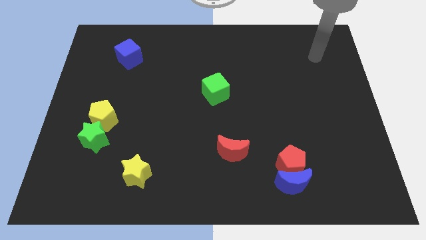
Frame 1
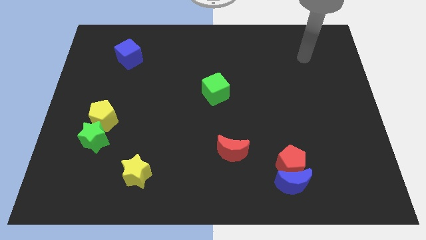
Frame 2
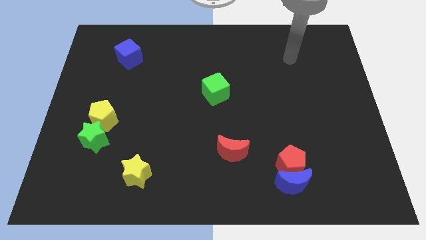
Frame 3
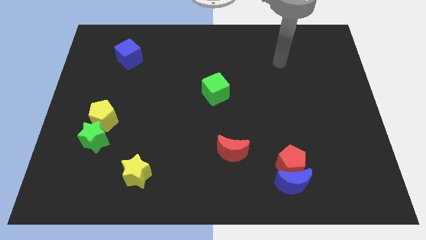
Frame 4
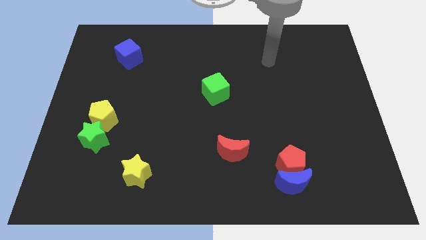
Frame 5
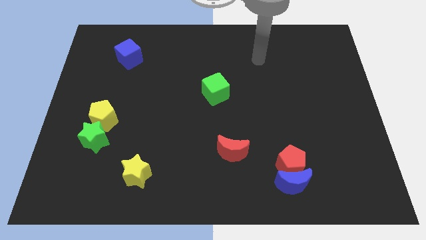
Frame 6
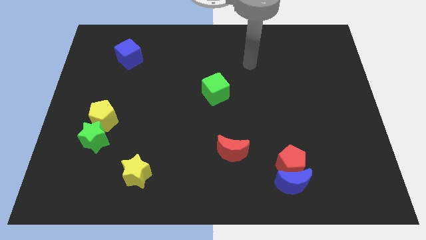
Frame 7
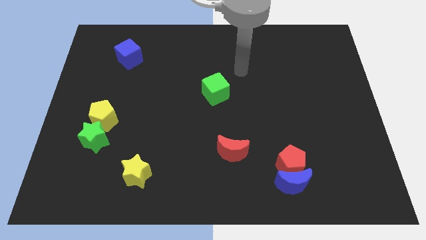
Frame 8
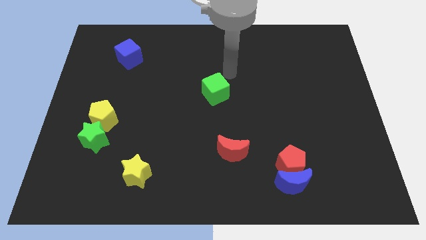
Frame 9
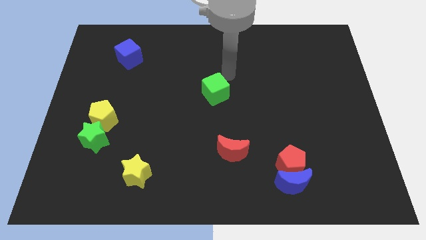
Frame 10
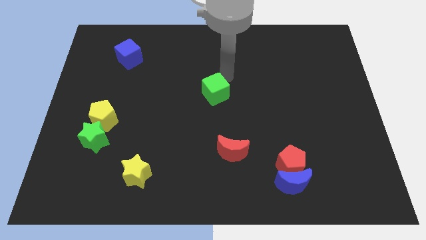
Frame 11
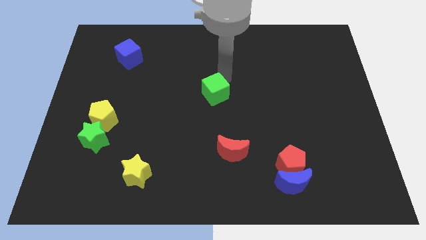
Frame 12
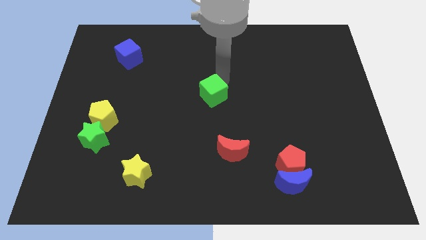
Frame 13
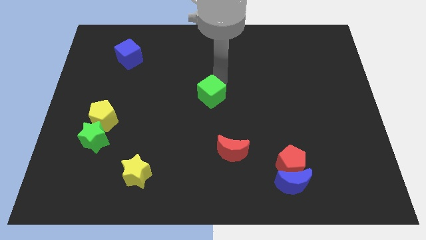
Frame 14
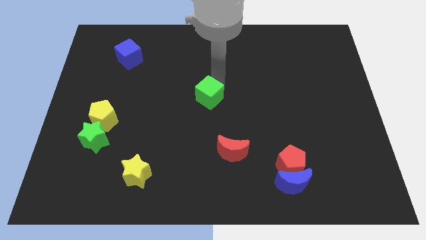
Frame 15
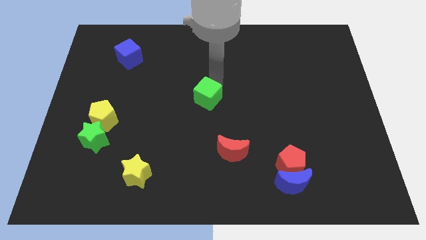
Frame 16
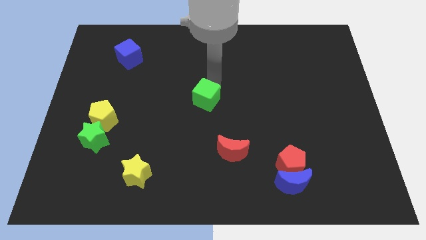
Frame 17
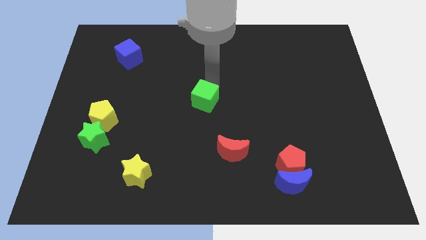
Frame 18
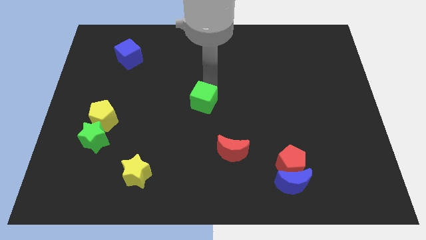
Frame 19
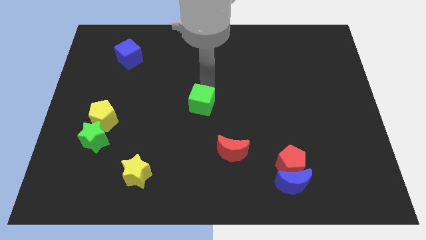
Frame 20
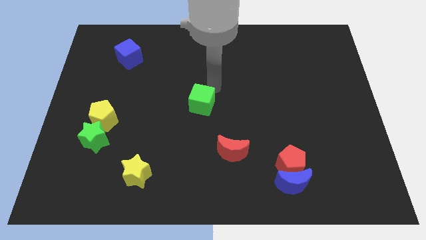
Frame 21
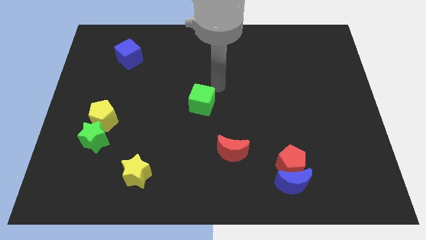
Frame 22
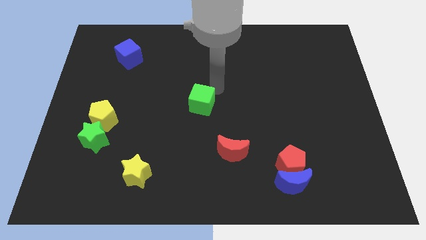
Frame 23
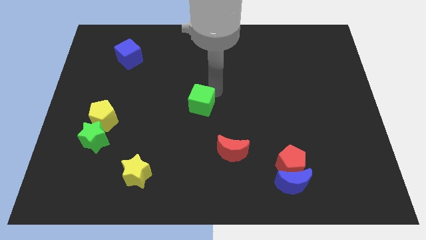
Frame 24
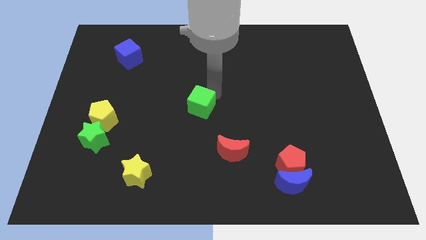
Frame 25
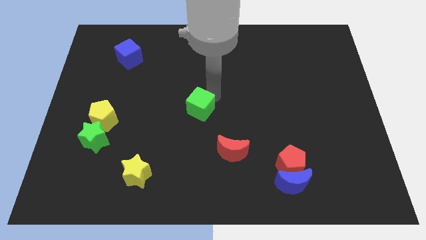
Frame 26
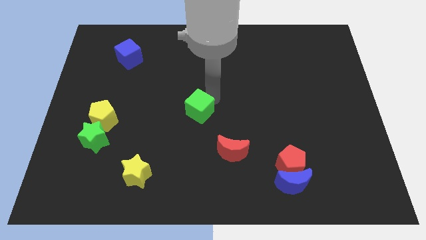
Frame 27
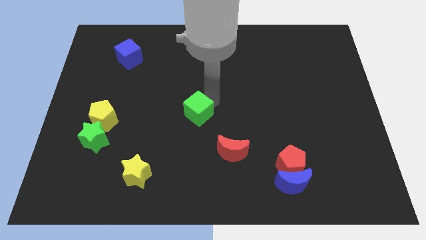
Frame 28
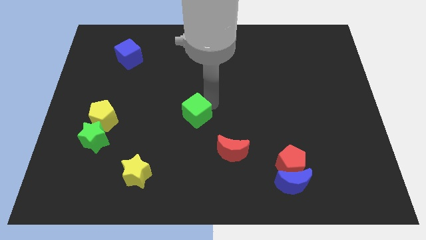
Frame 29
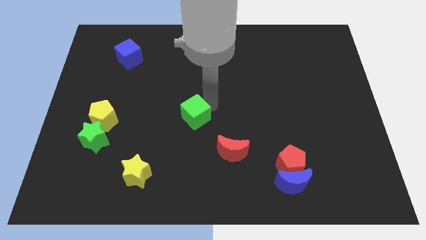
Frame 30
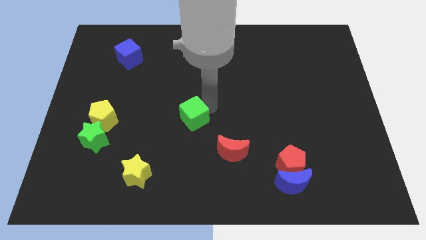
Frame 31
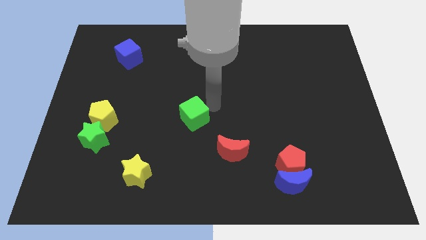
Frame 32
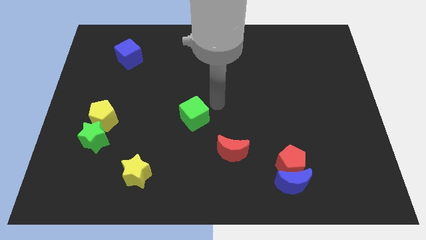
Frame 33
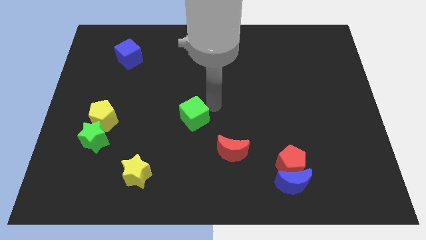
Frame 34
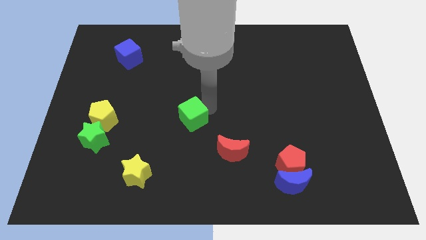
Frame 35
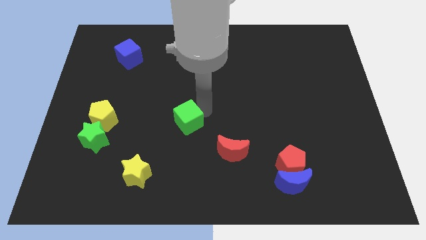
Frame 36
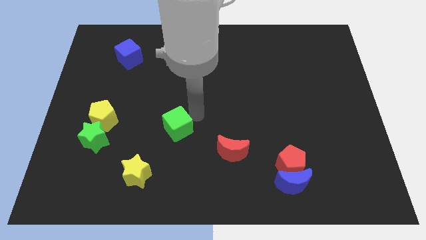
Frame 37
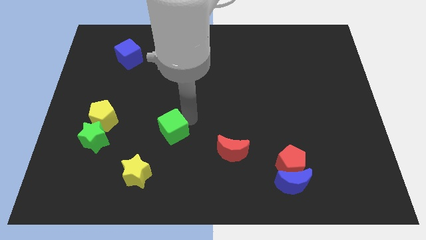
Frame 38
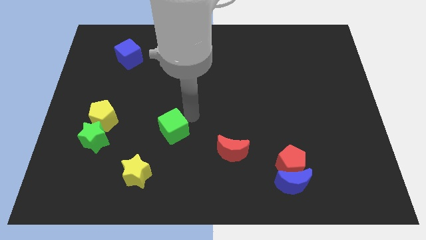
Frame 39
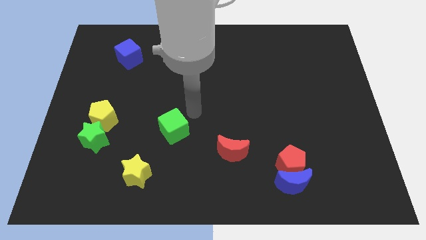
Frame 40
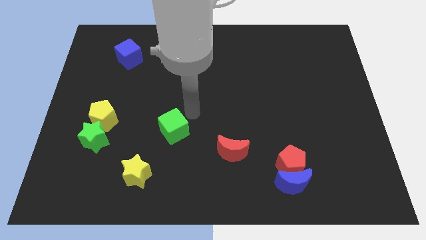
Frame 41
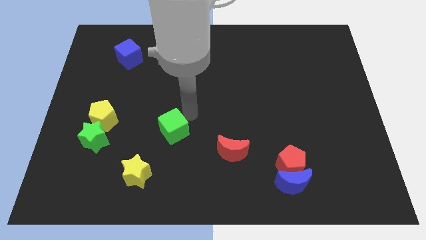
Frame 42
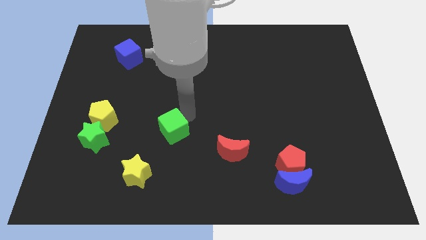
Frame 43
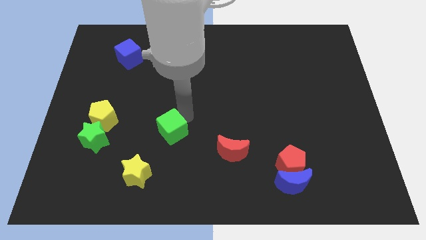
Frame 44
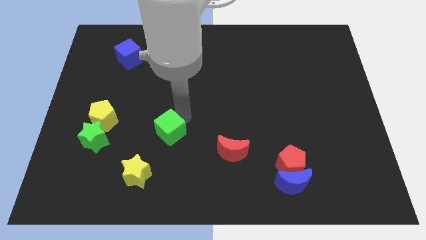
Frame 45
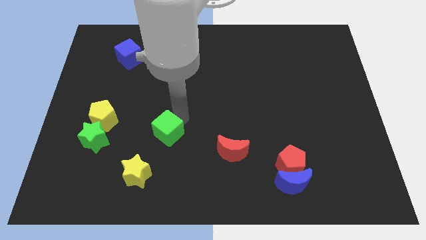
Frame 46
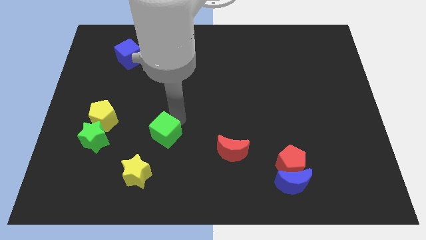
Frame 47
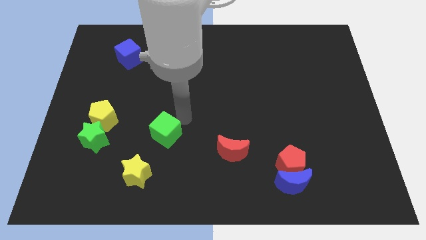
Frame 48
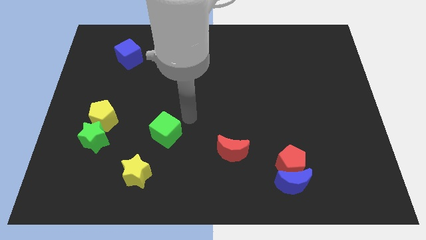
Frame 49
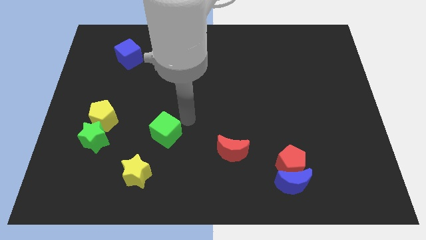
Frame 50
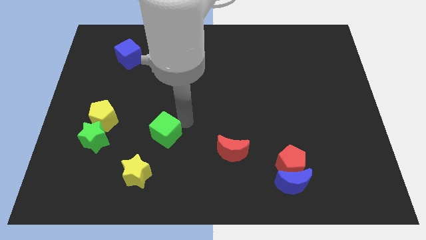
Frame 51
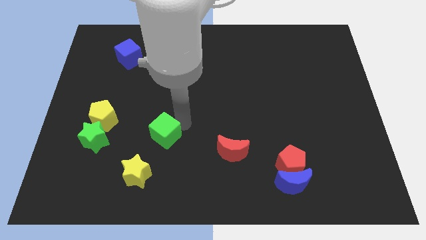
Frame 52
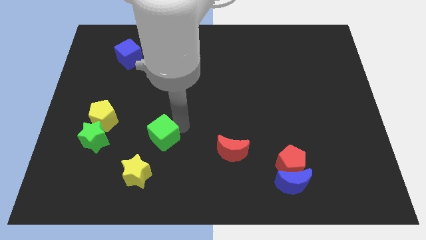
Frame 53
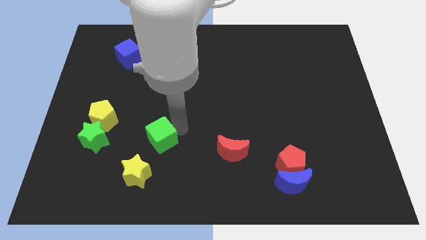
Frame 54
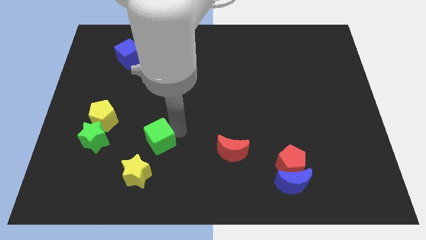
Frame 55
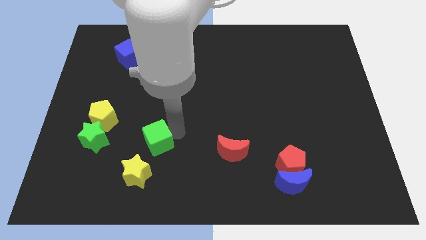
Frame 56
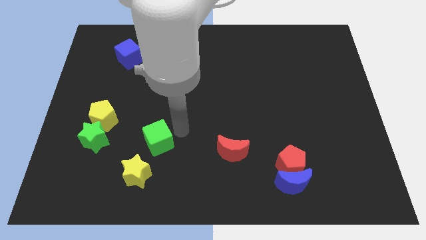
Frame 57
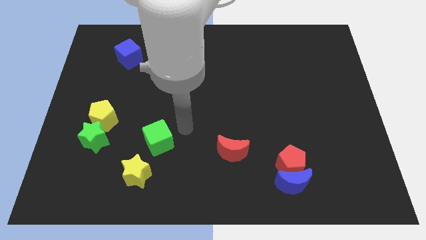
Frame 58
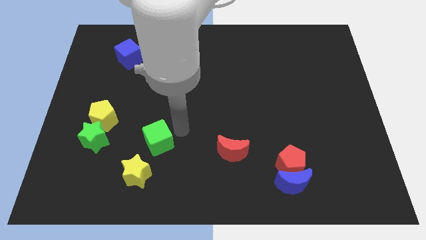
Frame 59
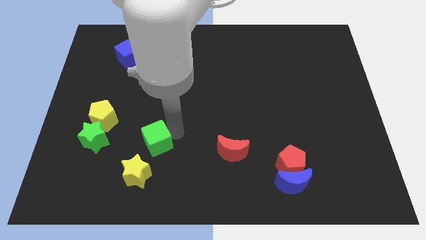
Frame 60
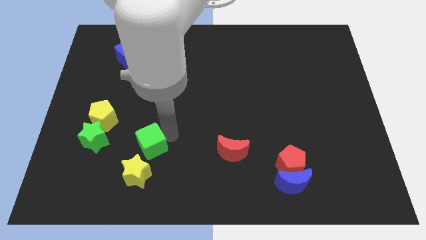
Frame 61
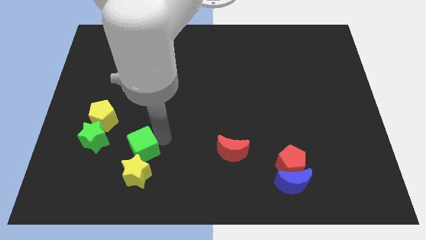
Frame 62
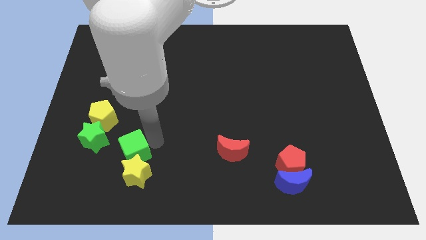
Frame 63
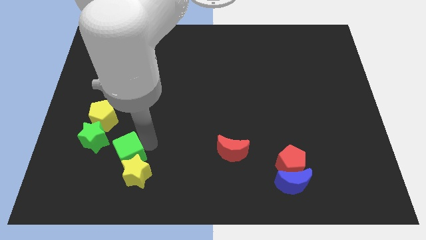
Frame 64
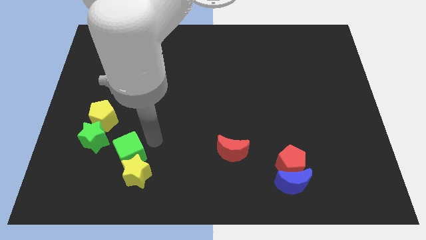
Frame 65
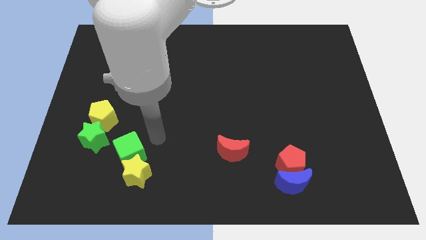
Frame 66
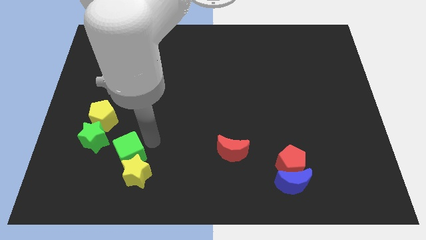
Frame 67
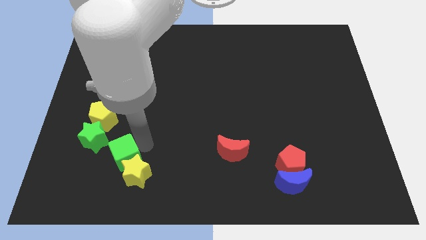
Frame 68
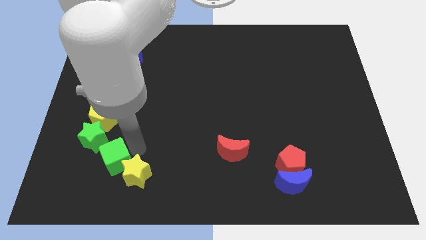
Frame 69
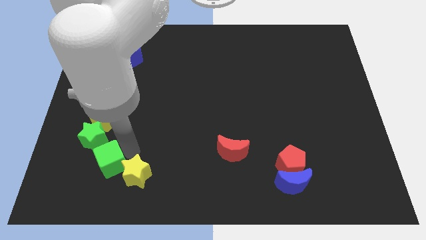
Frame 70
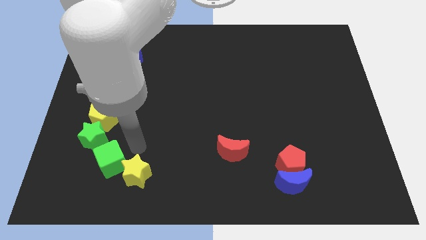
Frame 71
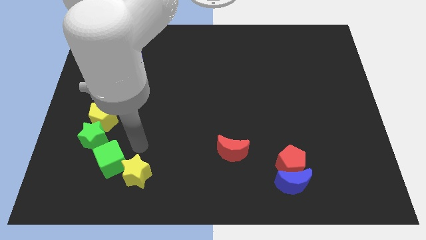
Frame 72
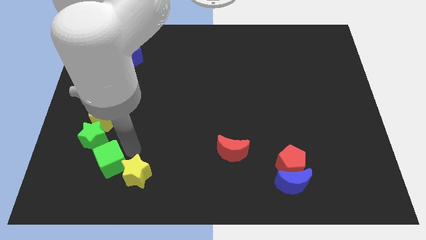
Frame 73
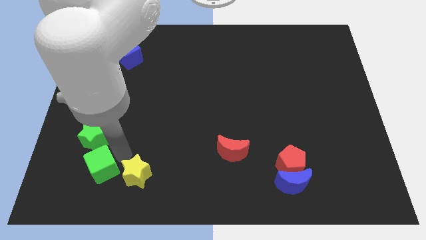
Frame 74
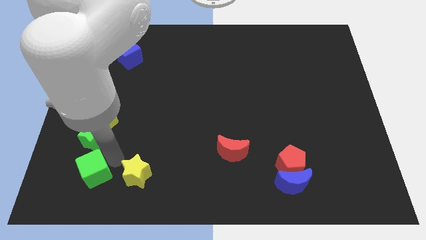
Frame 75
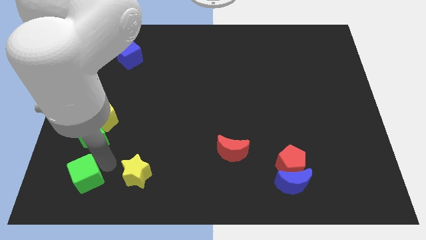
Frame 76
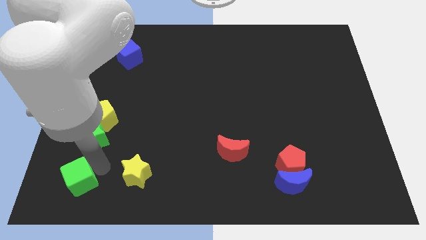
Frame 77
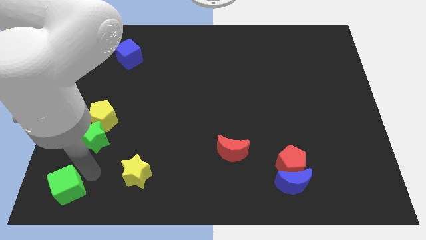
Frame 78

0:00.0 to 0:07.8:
move the green cube to the bottom left of the board
